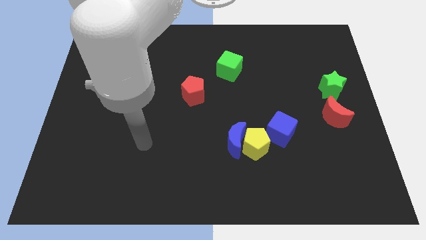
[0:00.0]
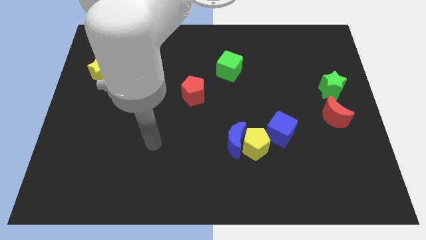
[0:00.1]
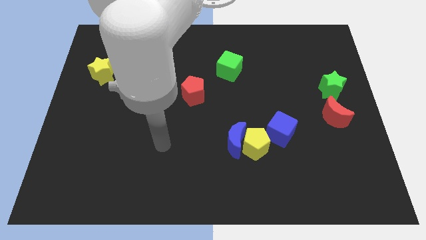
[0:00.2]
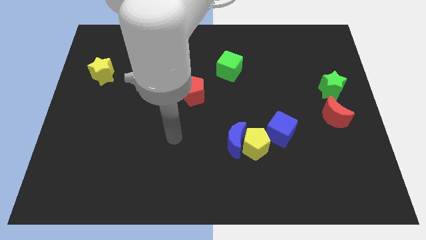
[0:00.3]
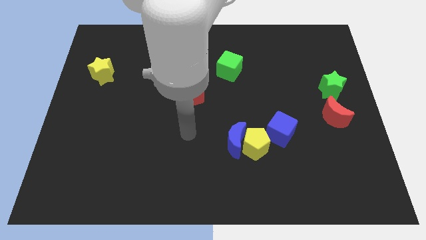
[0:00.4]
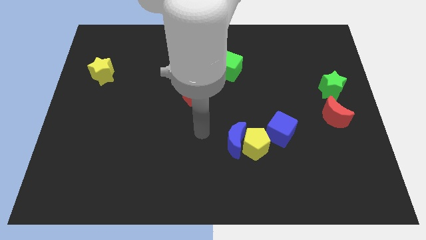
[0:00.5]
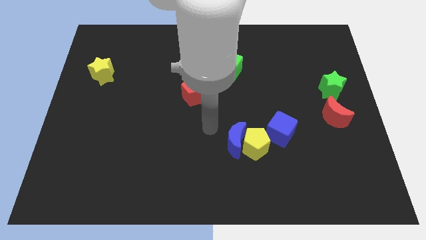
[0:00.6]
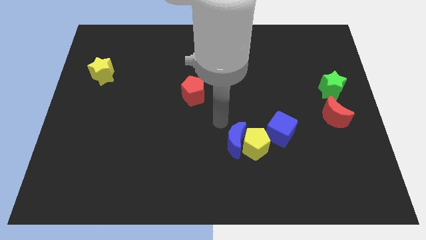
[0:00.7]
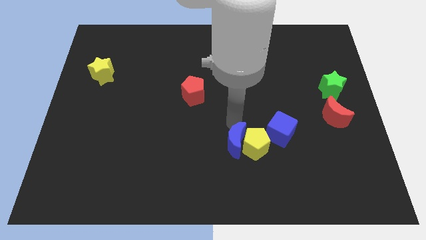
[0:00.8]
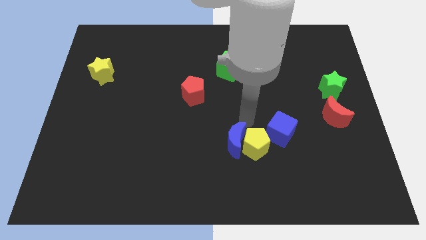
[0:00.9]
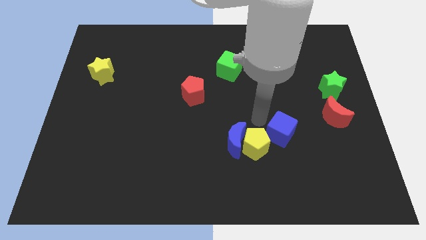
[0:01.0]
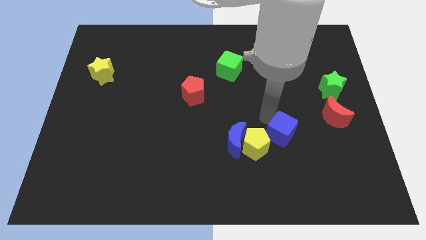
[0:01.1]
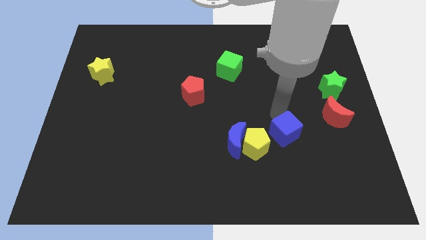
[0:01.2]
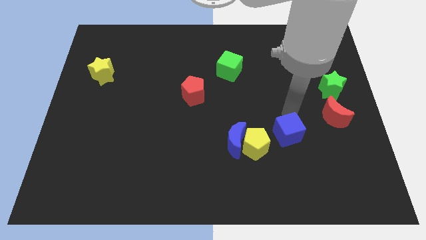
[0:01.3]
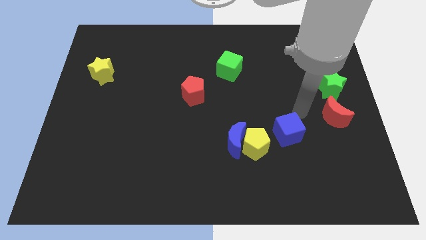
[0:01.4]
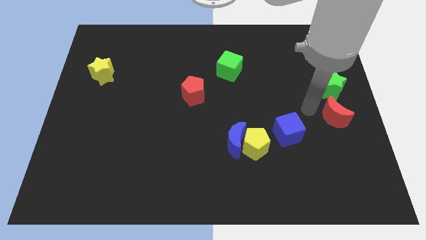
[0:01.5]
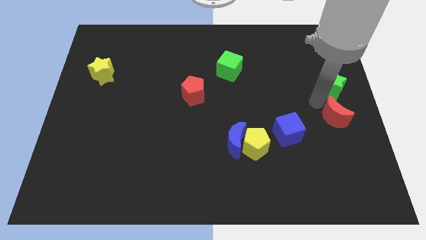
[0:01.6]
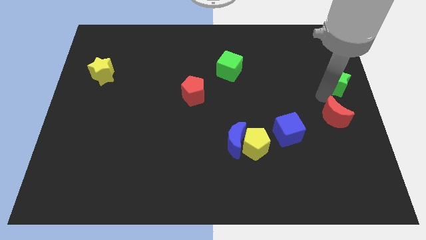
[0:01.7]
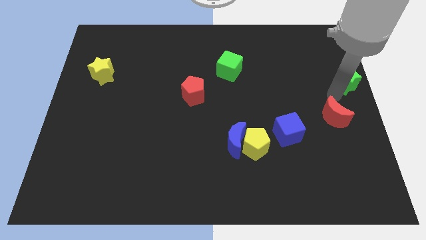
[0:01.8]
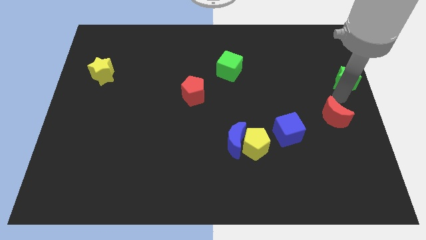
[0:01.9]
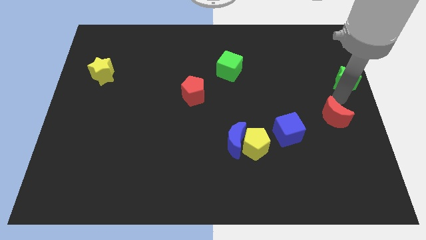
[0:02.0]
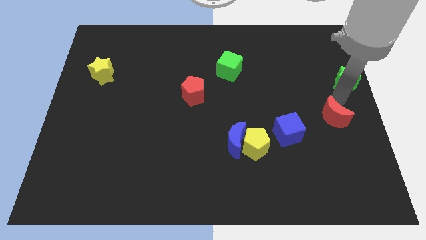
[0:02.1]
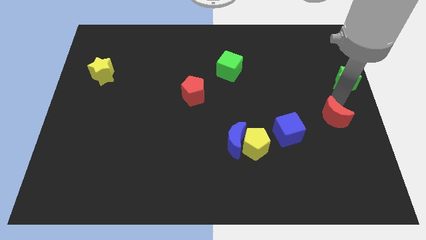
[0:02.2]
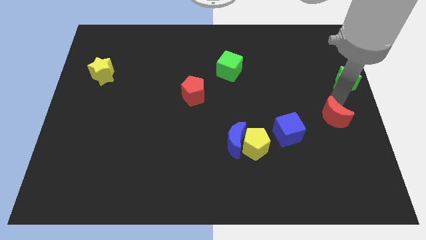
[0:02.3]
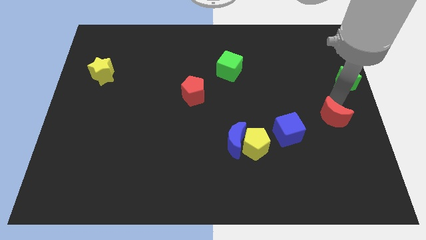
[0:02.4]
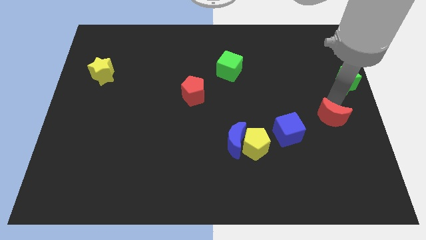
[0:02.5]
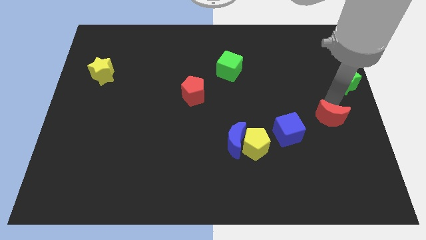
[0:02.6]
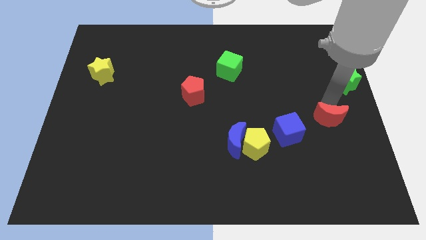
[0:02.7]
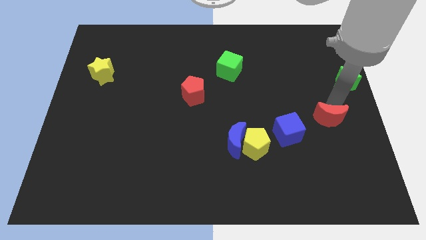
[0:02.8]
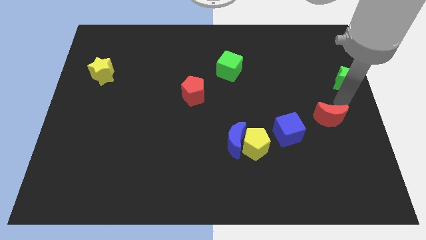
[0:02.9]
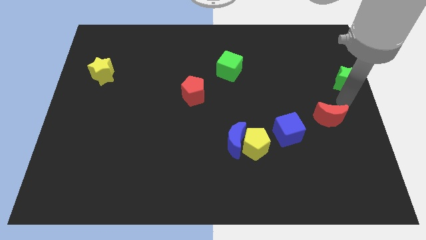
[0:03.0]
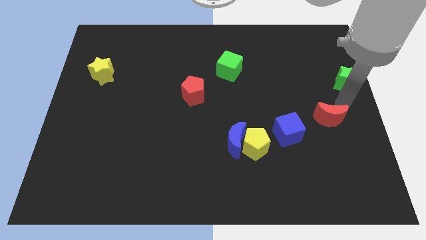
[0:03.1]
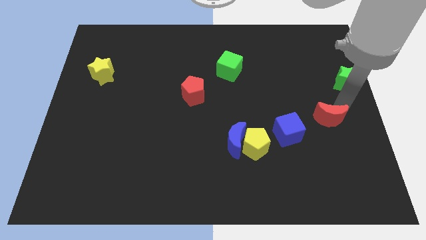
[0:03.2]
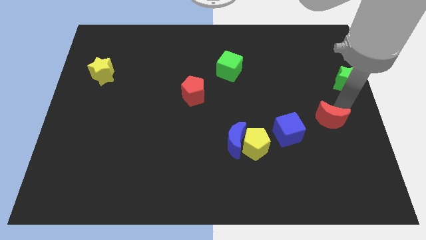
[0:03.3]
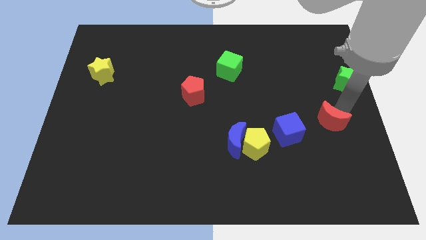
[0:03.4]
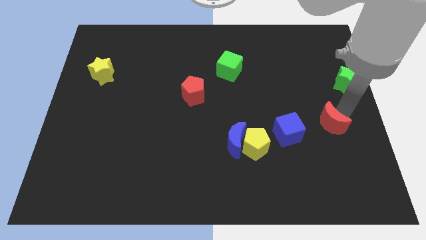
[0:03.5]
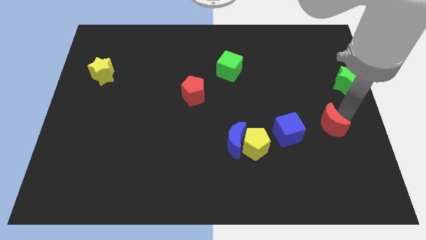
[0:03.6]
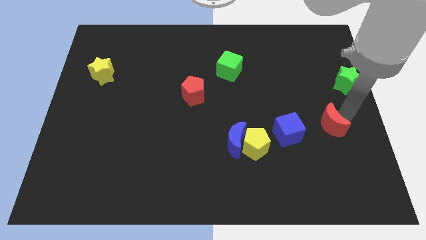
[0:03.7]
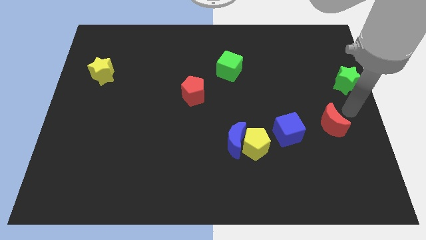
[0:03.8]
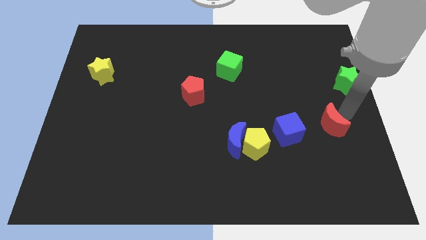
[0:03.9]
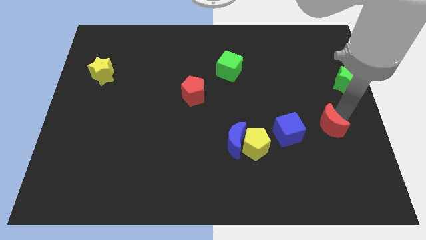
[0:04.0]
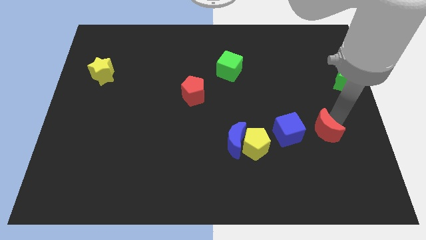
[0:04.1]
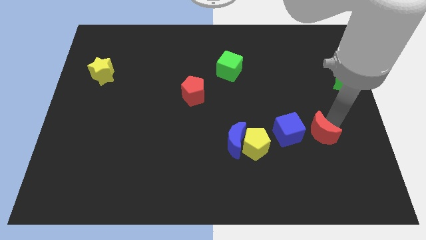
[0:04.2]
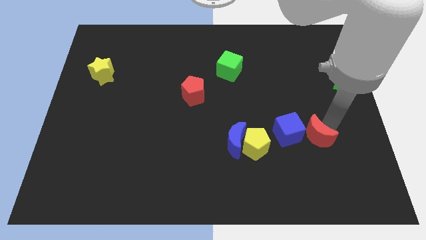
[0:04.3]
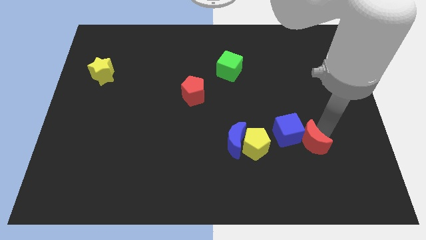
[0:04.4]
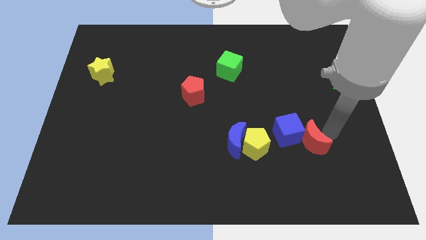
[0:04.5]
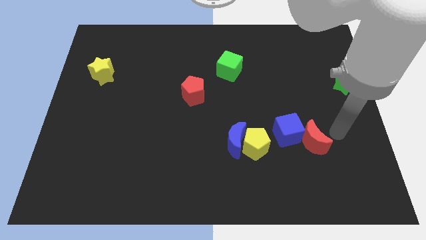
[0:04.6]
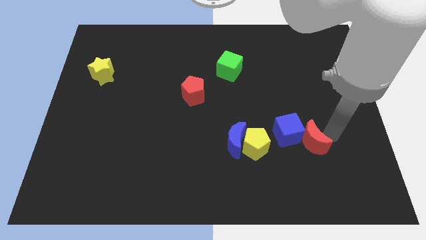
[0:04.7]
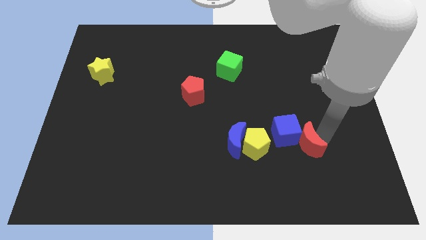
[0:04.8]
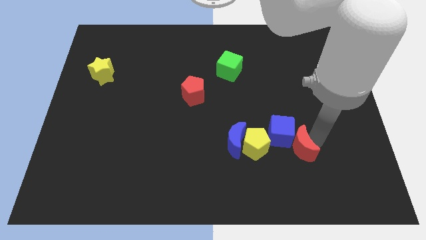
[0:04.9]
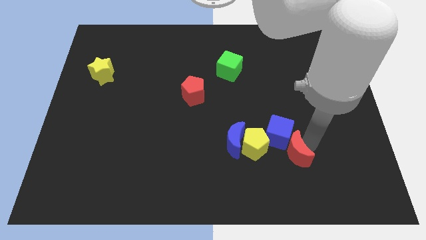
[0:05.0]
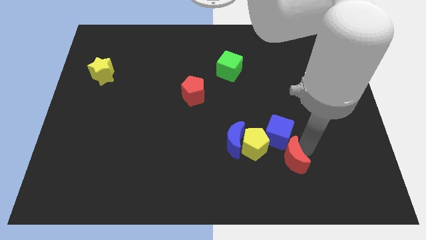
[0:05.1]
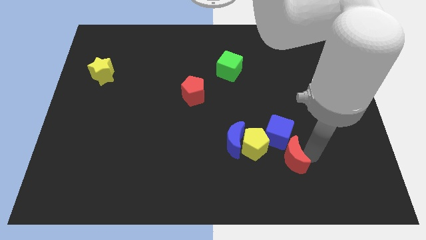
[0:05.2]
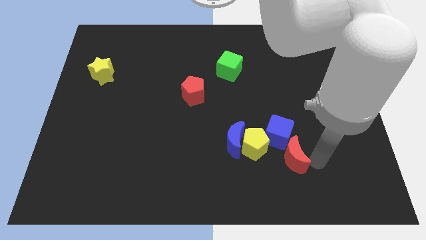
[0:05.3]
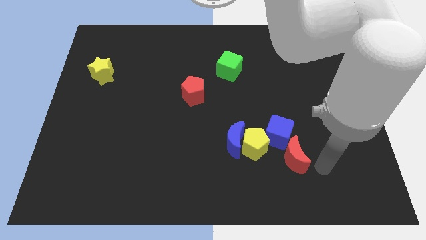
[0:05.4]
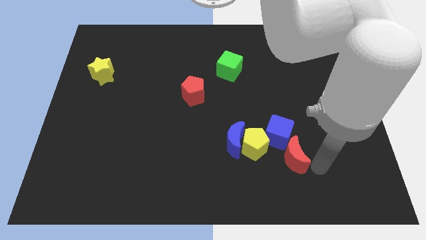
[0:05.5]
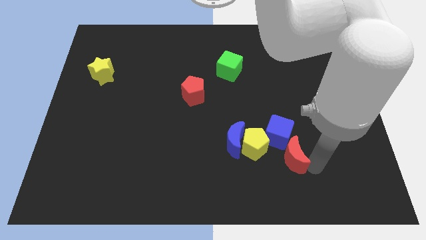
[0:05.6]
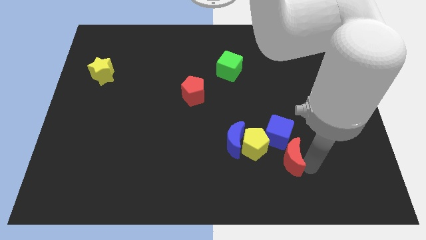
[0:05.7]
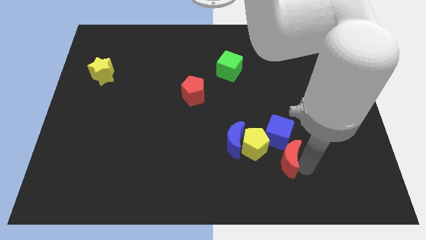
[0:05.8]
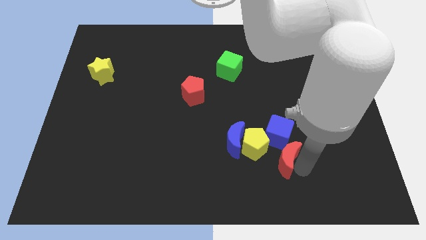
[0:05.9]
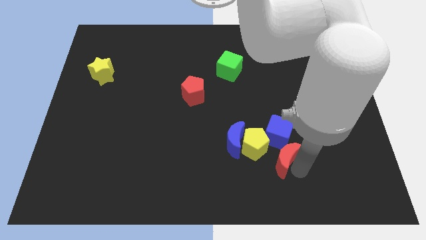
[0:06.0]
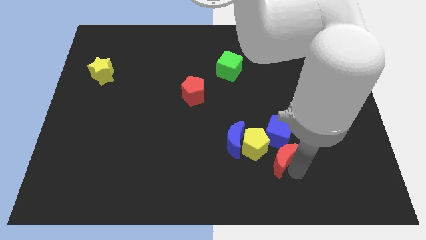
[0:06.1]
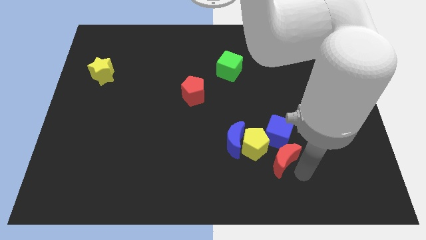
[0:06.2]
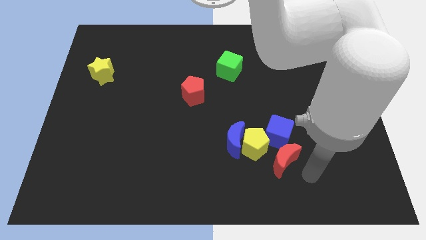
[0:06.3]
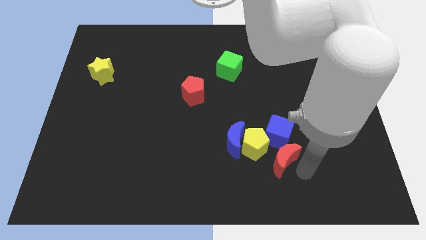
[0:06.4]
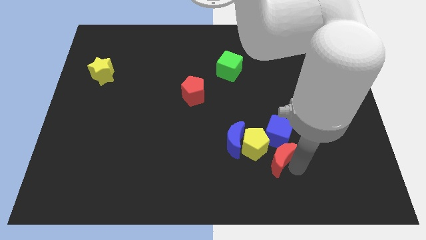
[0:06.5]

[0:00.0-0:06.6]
slide the red moon close to the yellow pentagon

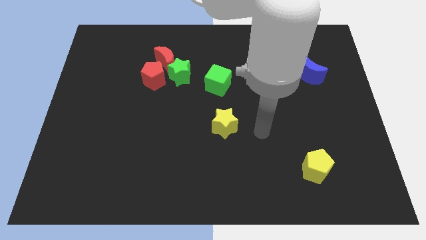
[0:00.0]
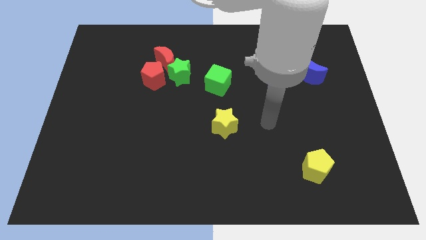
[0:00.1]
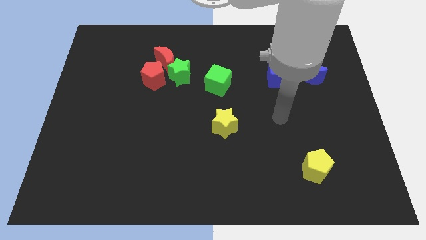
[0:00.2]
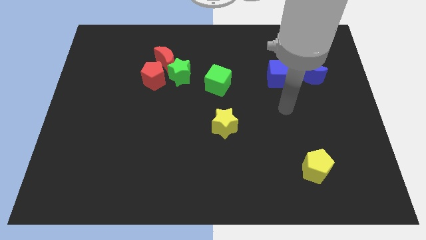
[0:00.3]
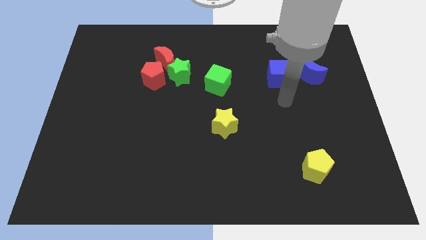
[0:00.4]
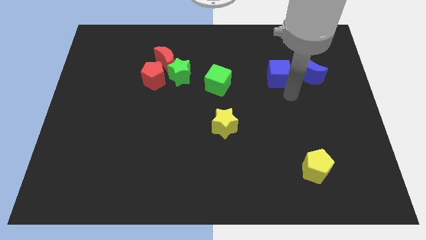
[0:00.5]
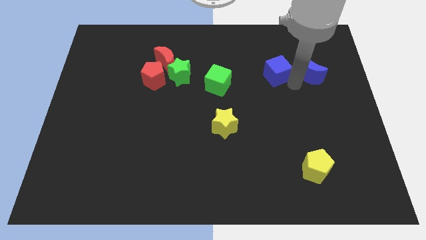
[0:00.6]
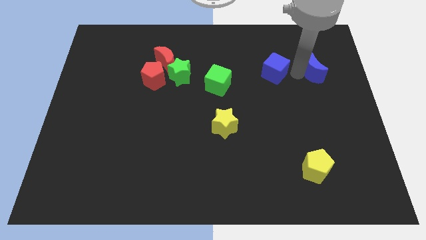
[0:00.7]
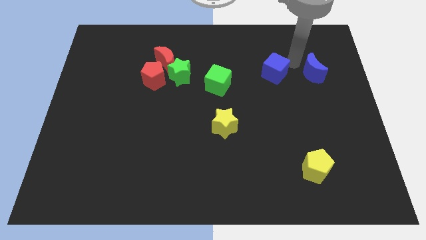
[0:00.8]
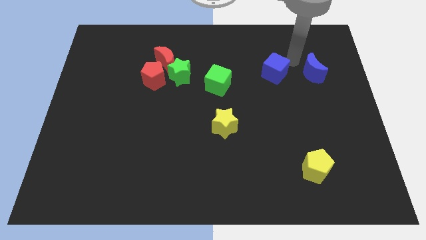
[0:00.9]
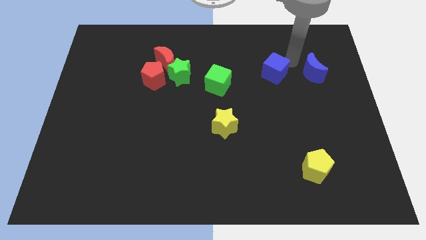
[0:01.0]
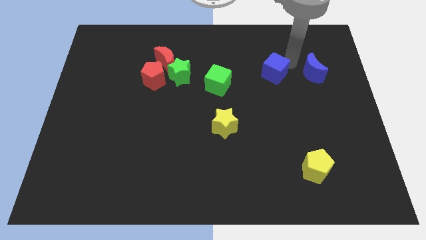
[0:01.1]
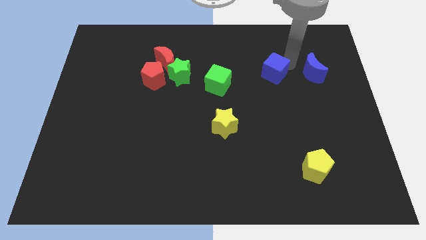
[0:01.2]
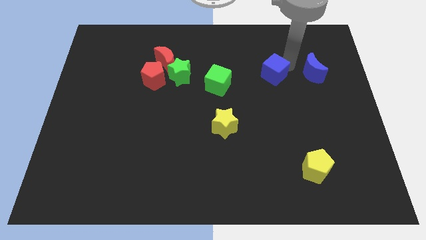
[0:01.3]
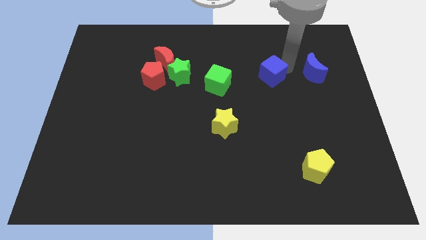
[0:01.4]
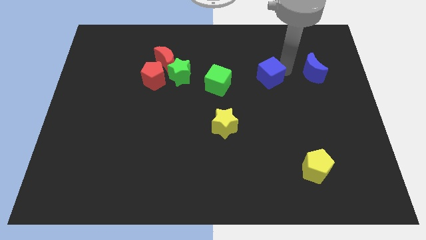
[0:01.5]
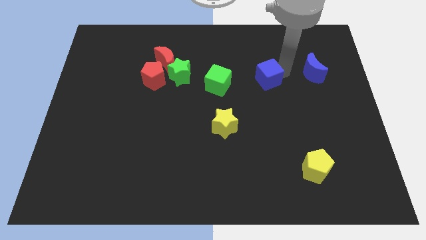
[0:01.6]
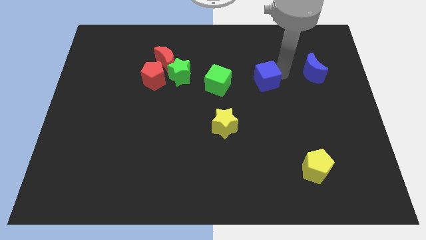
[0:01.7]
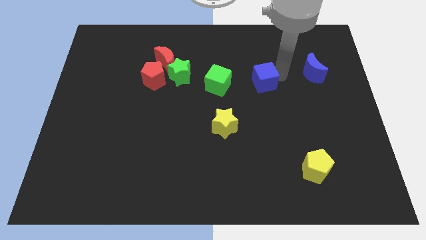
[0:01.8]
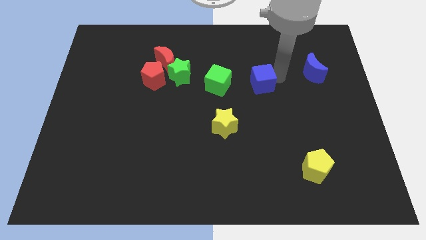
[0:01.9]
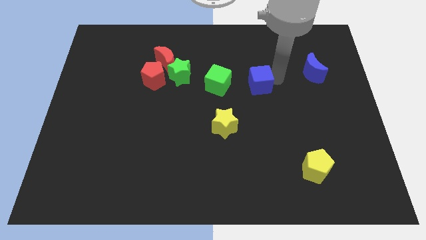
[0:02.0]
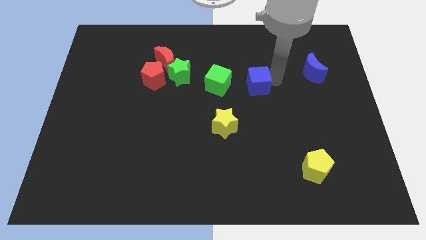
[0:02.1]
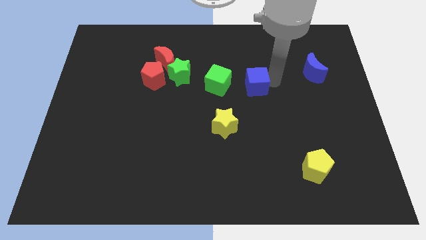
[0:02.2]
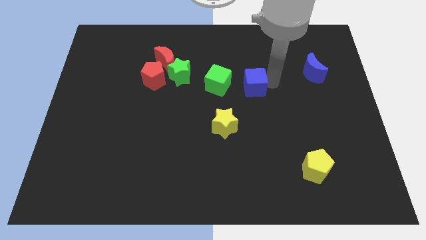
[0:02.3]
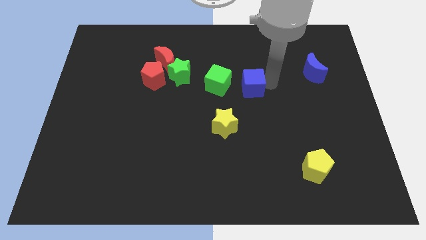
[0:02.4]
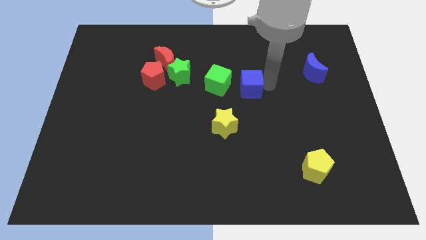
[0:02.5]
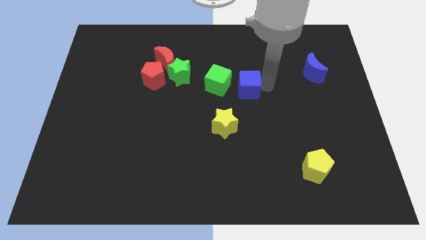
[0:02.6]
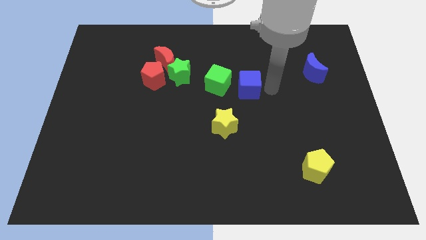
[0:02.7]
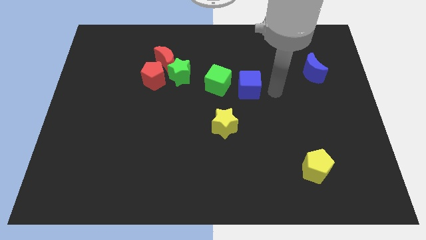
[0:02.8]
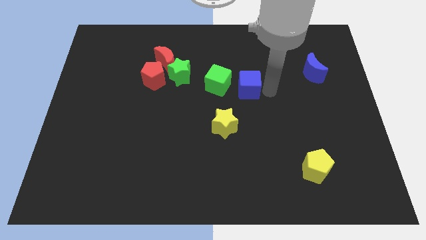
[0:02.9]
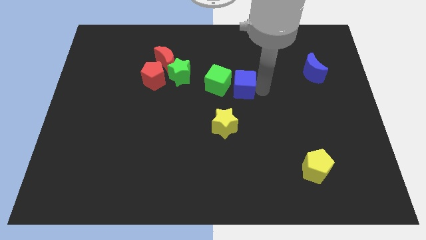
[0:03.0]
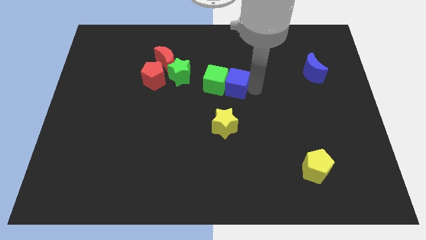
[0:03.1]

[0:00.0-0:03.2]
put the blue cube close to the green cube
